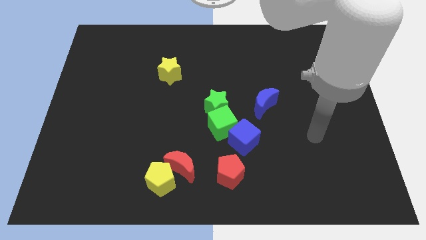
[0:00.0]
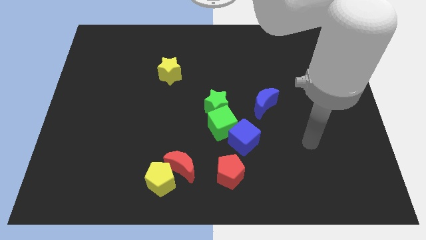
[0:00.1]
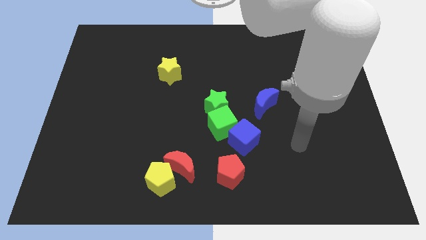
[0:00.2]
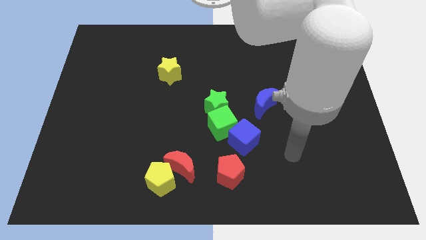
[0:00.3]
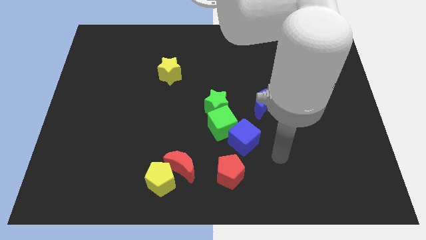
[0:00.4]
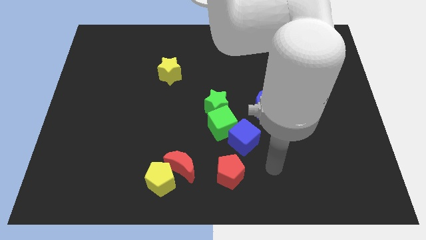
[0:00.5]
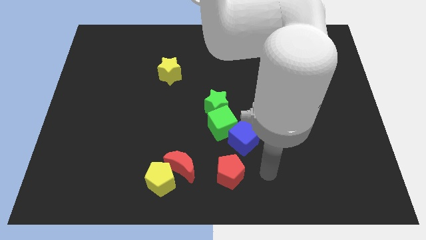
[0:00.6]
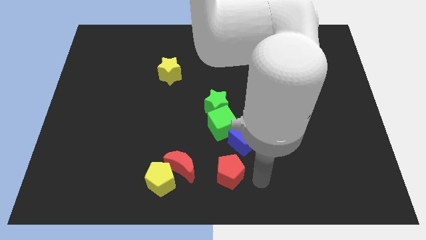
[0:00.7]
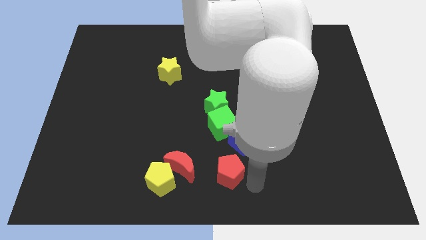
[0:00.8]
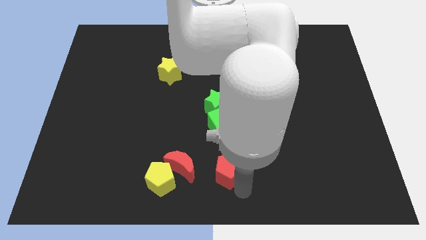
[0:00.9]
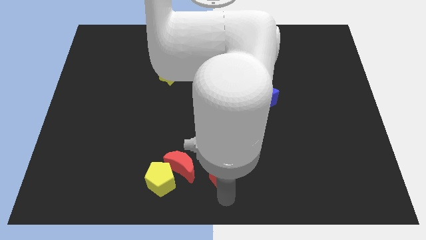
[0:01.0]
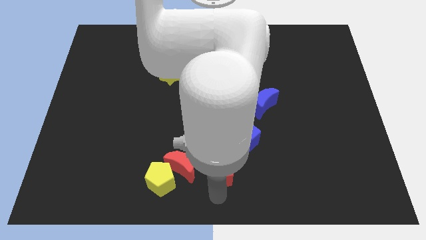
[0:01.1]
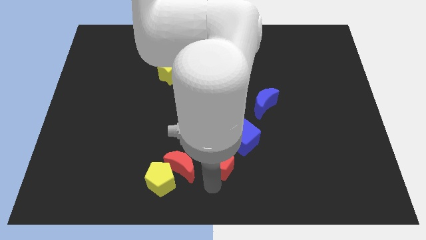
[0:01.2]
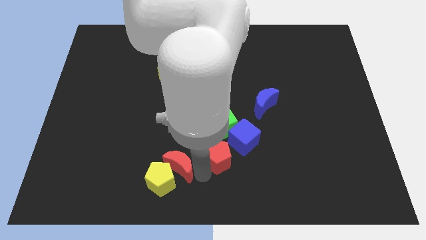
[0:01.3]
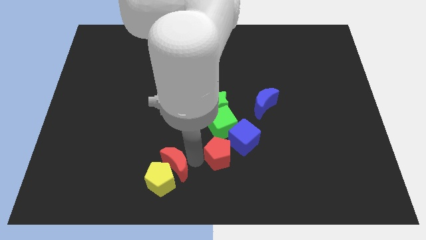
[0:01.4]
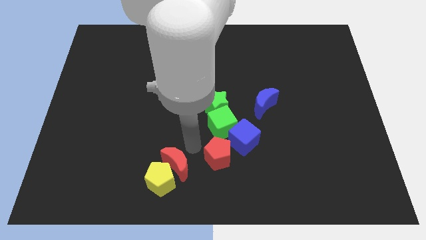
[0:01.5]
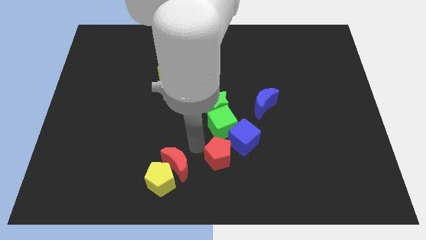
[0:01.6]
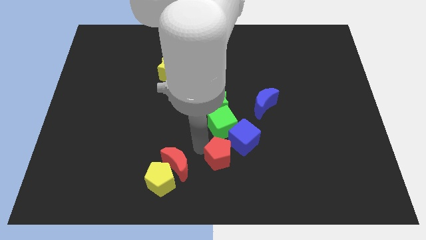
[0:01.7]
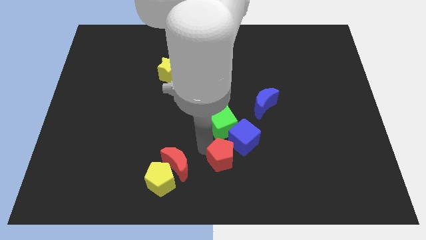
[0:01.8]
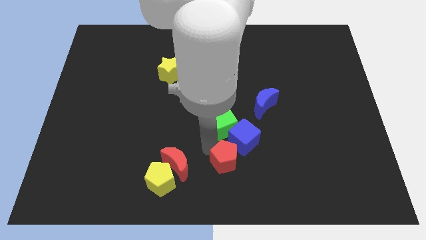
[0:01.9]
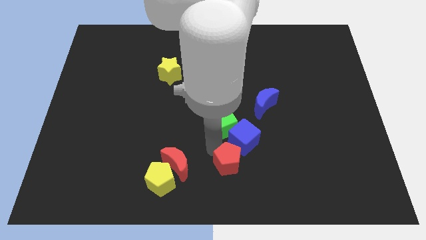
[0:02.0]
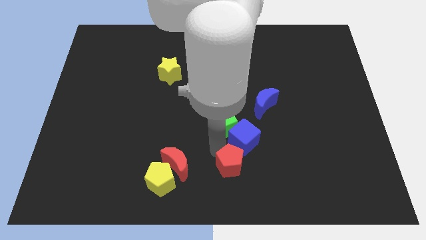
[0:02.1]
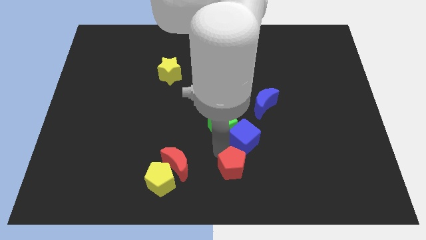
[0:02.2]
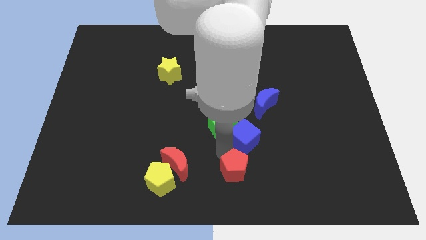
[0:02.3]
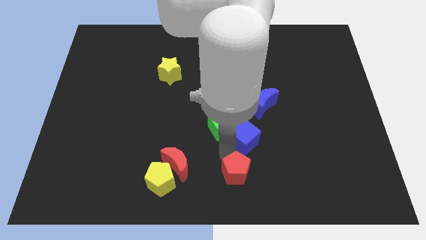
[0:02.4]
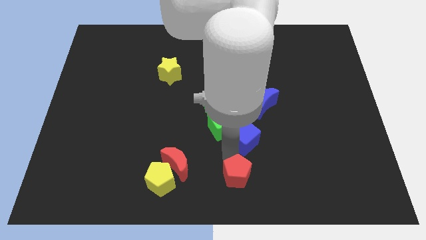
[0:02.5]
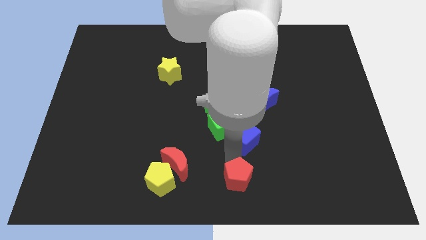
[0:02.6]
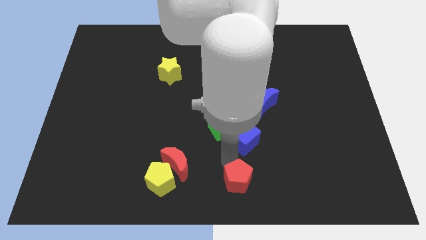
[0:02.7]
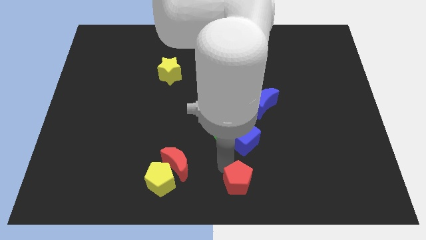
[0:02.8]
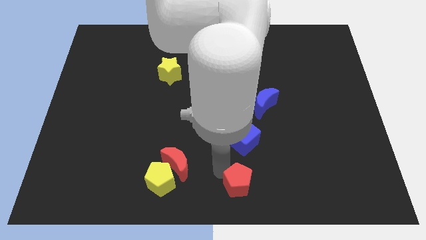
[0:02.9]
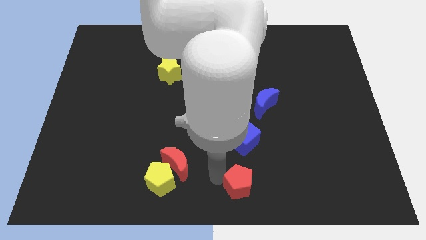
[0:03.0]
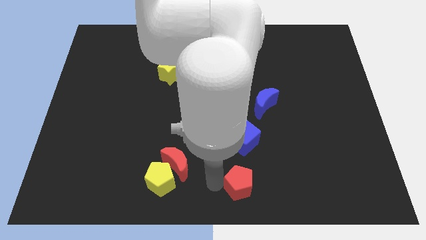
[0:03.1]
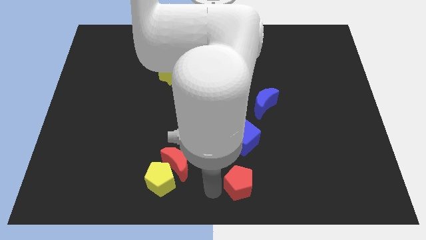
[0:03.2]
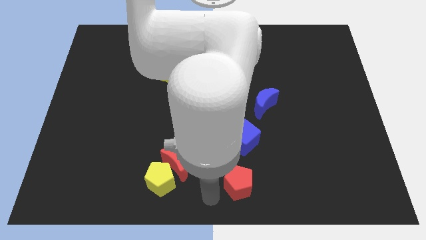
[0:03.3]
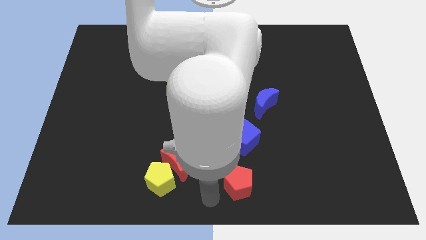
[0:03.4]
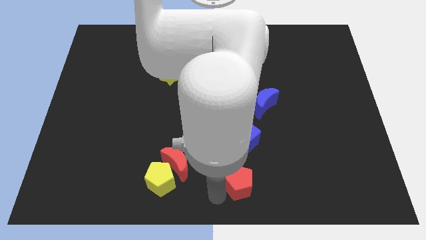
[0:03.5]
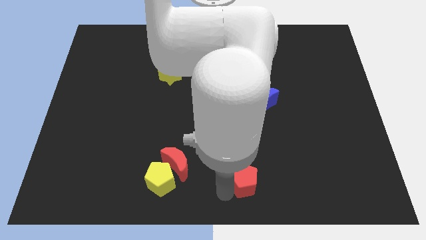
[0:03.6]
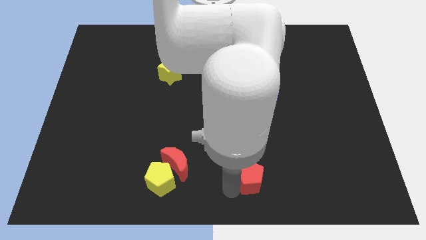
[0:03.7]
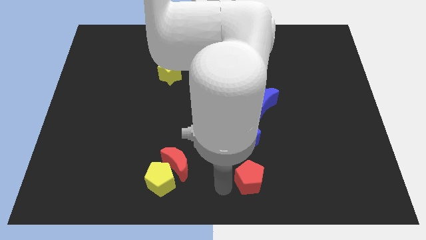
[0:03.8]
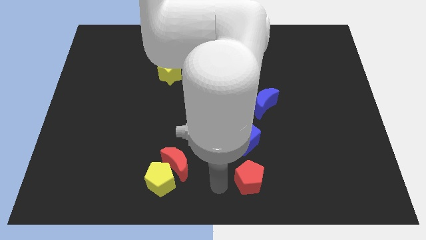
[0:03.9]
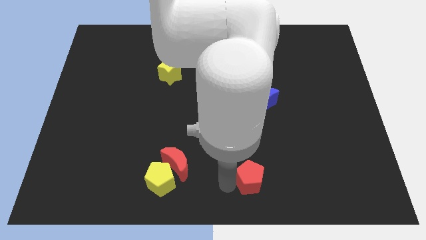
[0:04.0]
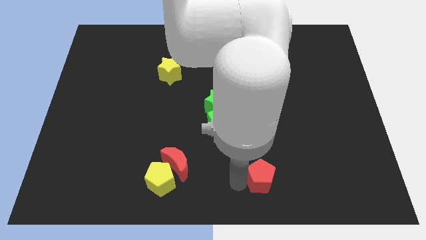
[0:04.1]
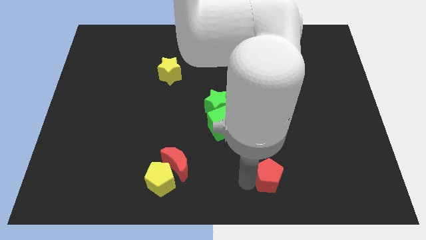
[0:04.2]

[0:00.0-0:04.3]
move the red pentagon slightly to the right

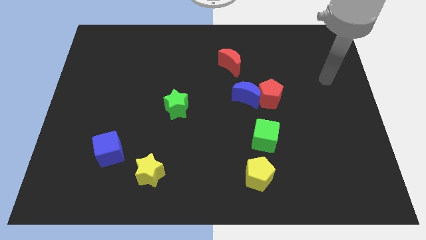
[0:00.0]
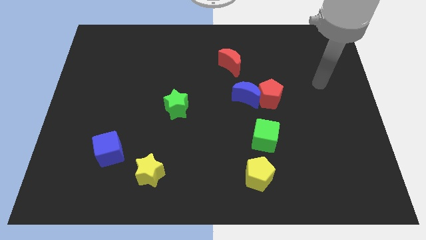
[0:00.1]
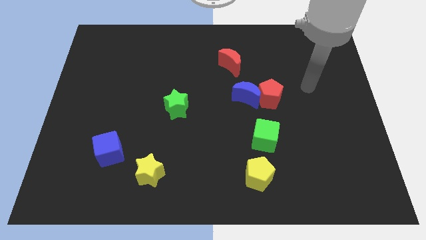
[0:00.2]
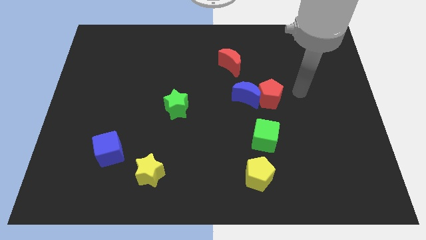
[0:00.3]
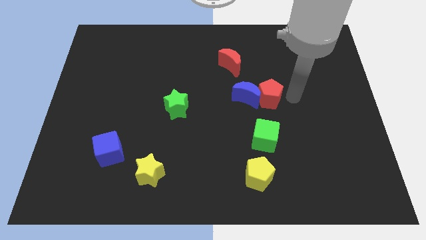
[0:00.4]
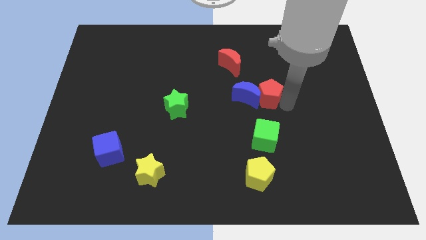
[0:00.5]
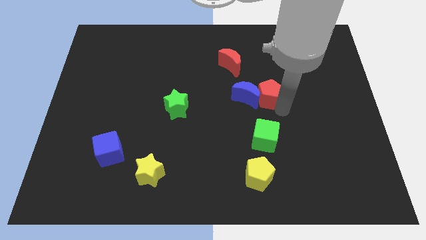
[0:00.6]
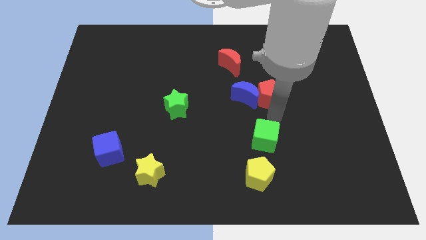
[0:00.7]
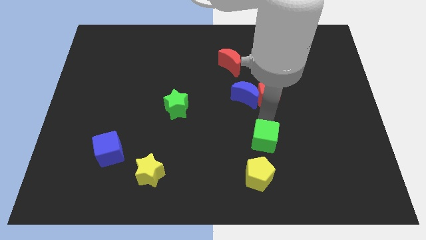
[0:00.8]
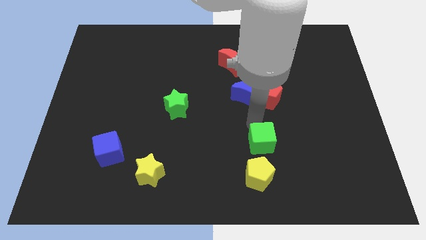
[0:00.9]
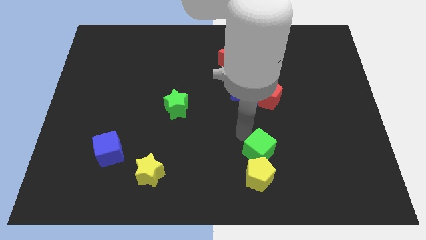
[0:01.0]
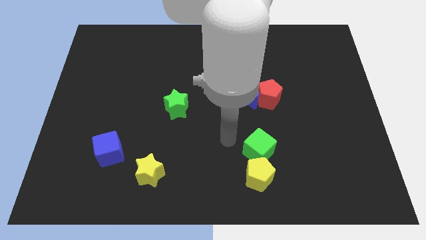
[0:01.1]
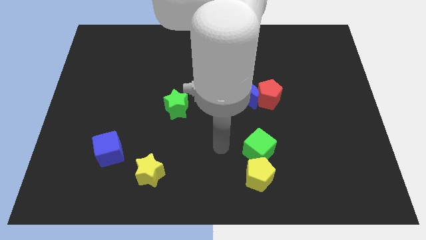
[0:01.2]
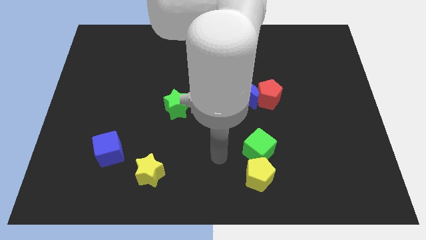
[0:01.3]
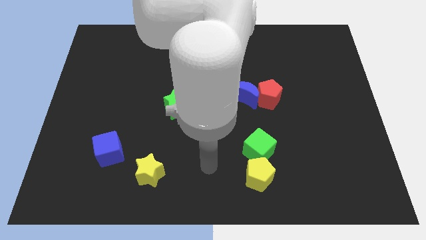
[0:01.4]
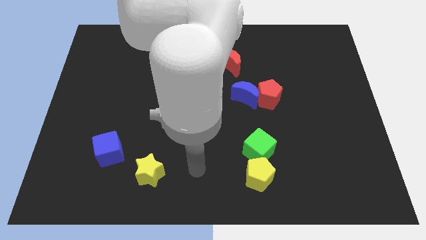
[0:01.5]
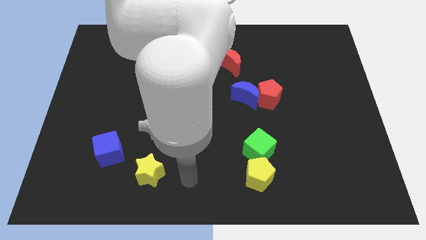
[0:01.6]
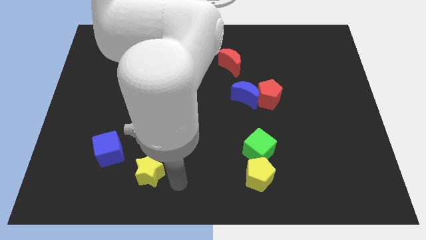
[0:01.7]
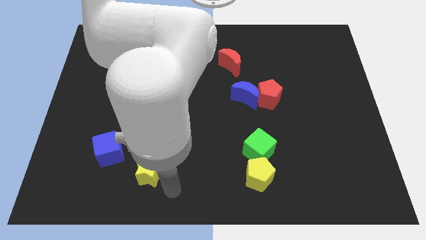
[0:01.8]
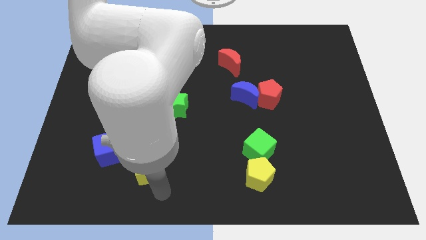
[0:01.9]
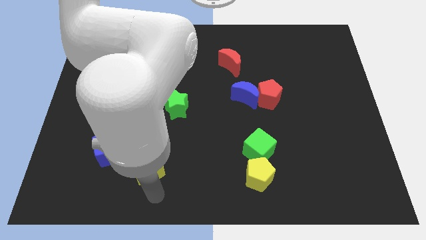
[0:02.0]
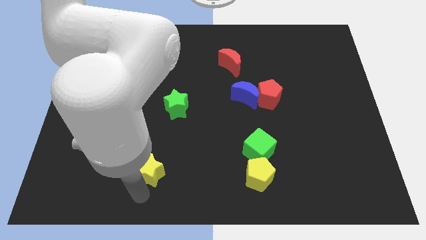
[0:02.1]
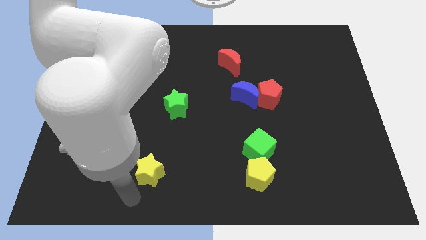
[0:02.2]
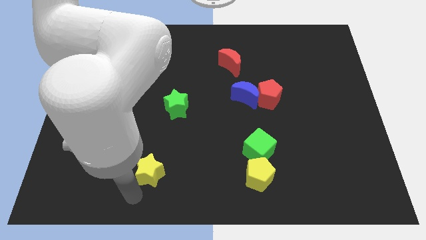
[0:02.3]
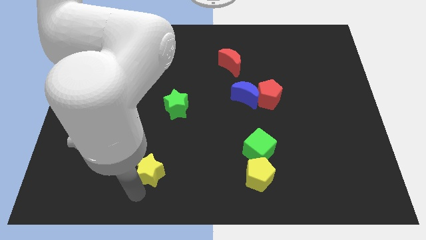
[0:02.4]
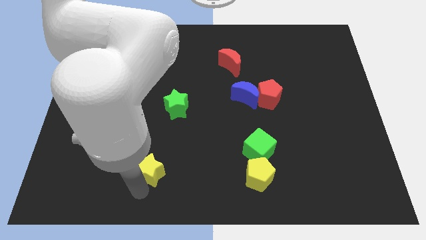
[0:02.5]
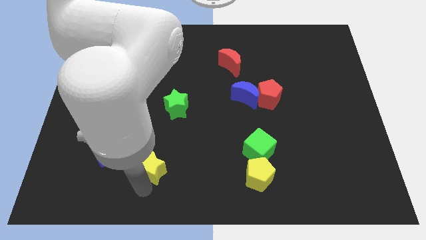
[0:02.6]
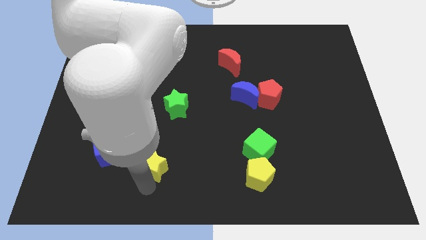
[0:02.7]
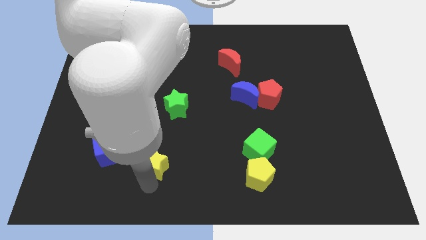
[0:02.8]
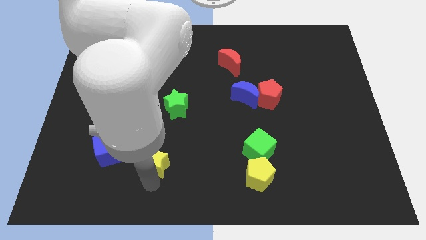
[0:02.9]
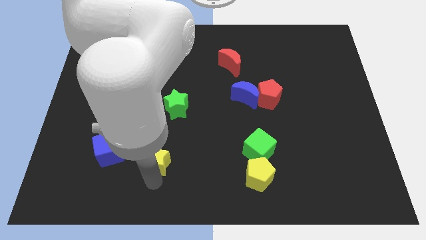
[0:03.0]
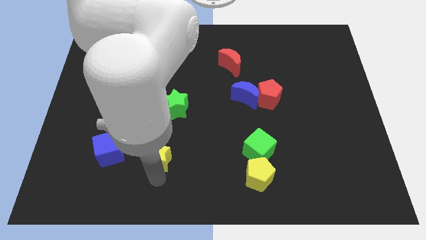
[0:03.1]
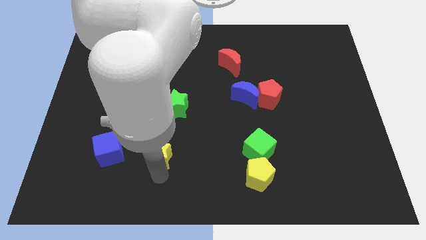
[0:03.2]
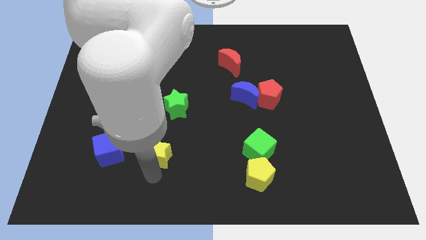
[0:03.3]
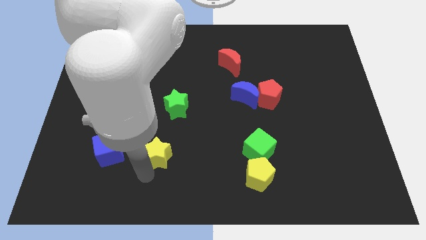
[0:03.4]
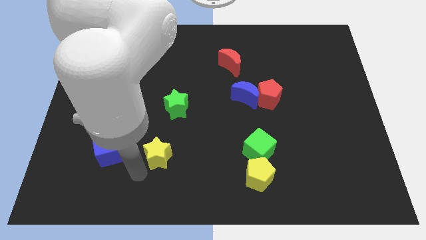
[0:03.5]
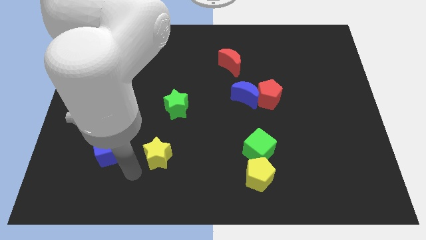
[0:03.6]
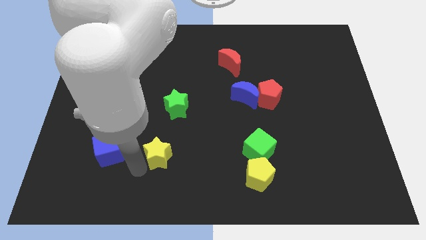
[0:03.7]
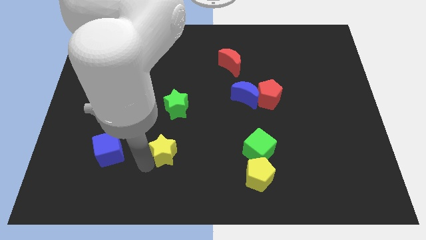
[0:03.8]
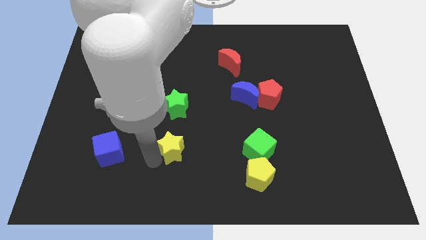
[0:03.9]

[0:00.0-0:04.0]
move the yellow star diagonally upwards and right a little bit
